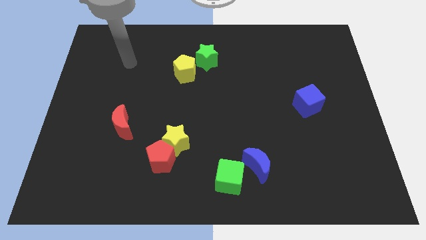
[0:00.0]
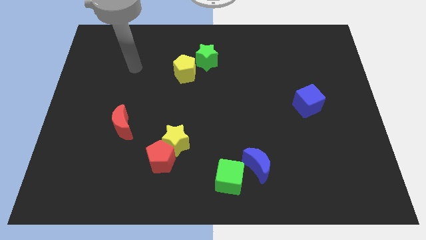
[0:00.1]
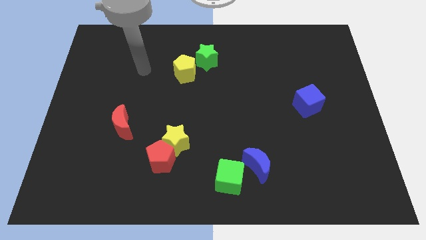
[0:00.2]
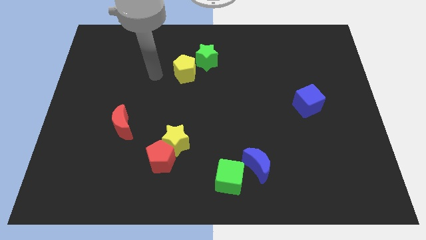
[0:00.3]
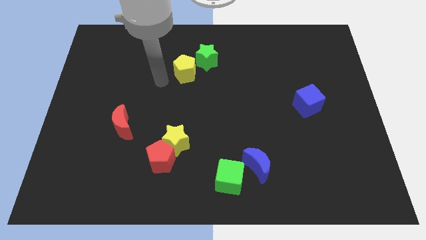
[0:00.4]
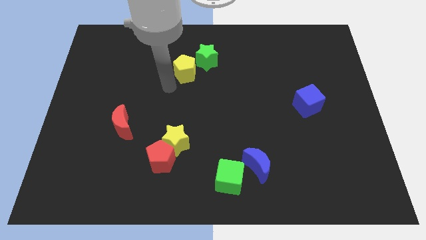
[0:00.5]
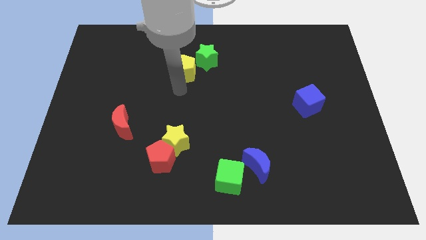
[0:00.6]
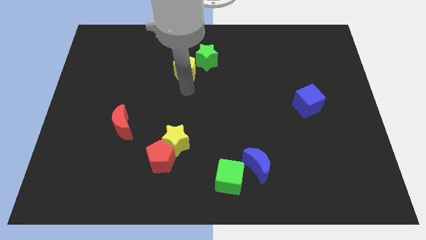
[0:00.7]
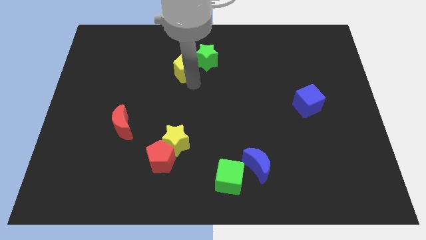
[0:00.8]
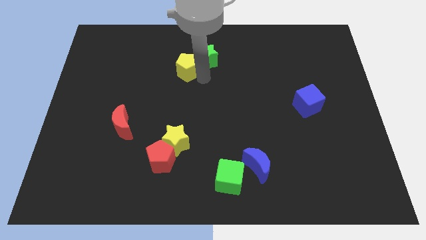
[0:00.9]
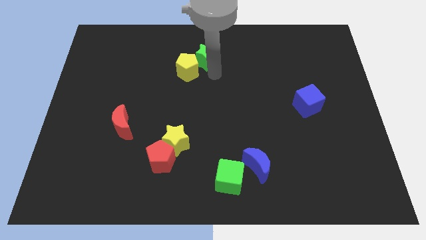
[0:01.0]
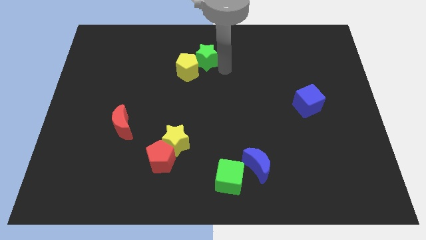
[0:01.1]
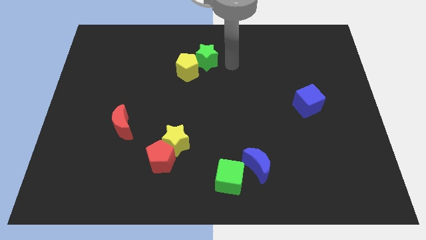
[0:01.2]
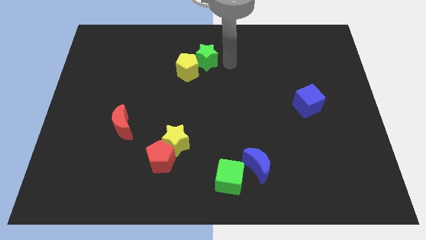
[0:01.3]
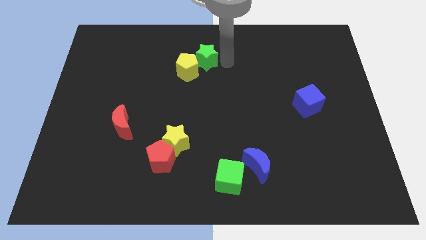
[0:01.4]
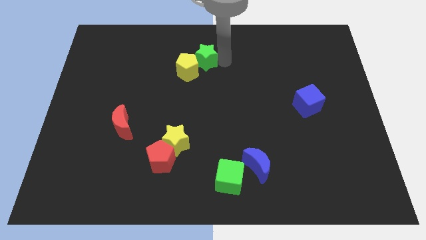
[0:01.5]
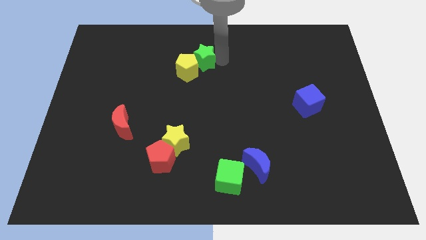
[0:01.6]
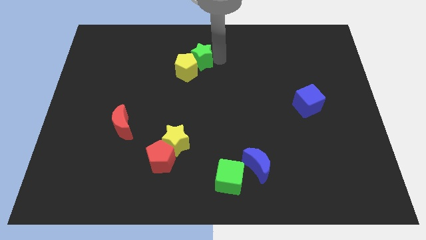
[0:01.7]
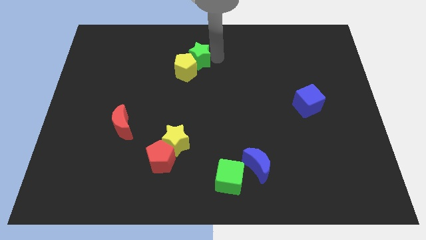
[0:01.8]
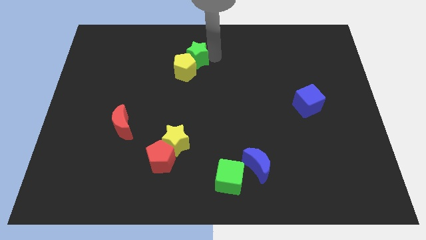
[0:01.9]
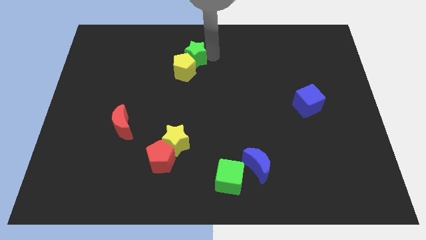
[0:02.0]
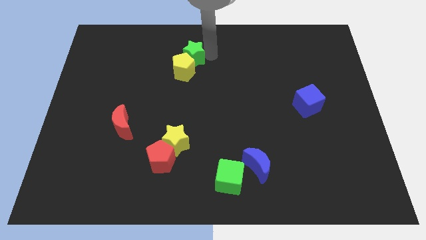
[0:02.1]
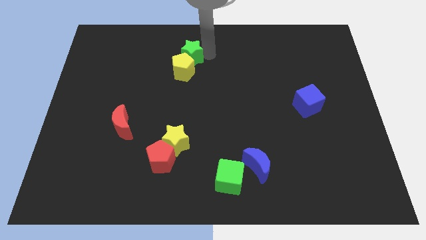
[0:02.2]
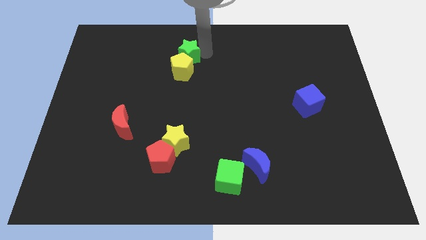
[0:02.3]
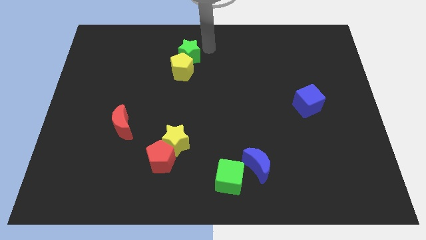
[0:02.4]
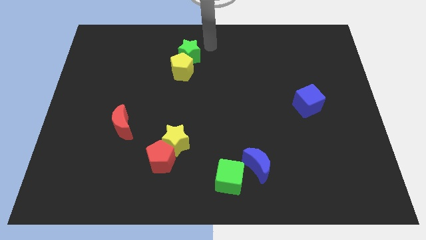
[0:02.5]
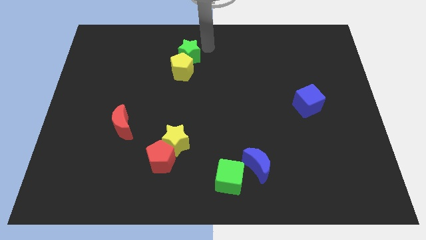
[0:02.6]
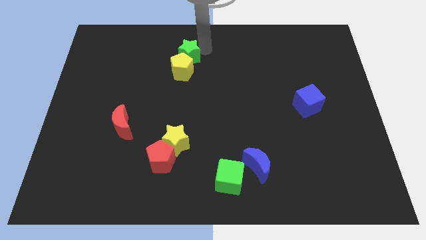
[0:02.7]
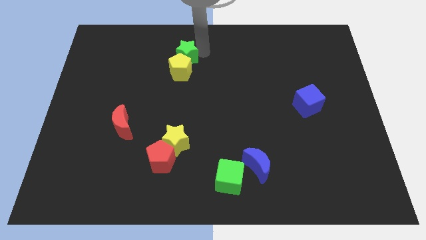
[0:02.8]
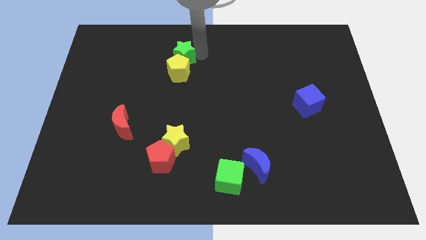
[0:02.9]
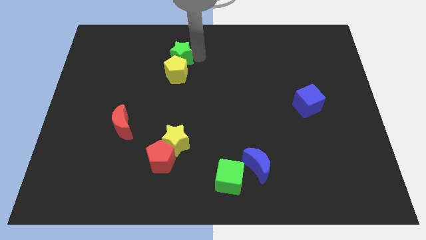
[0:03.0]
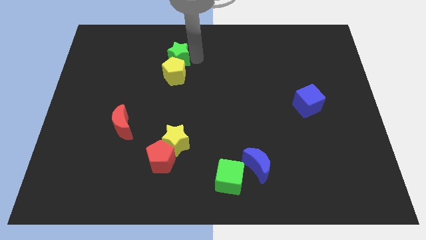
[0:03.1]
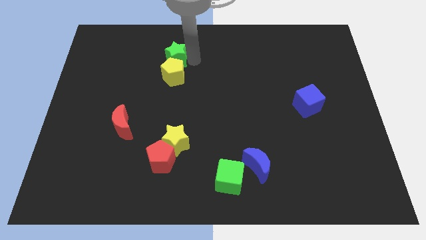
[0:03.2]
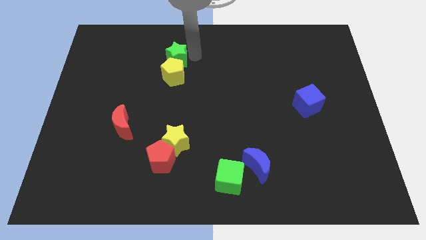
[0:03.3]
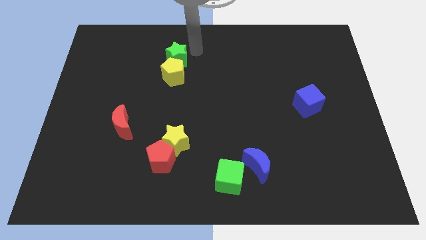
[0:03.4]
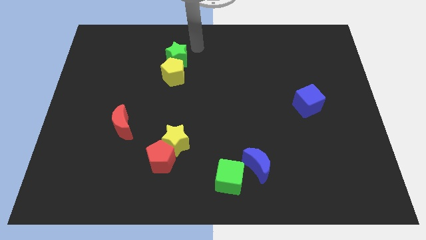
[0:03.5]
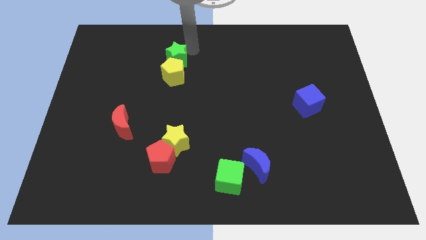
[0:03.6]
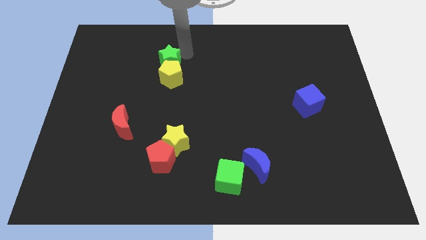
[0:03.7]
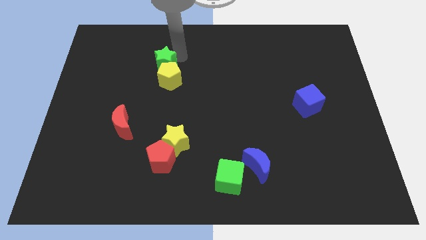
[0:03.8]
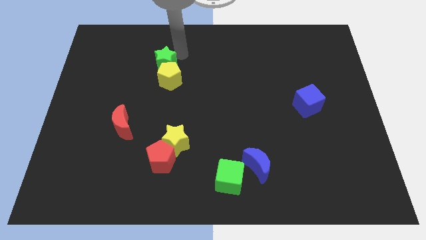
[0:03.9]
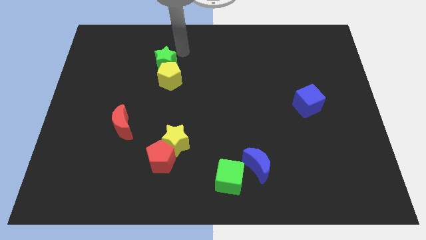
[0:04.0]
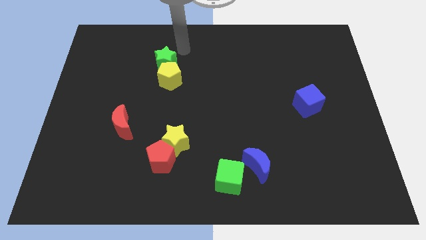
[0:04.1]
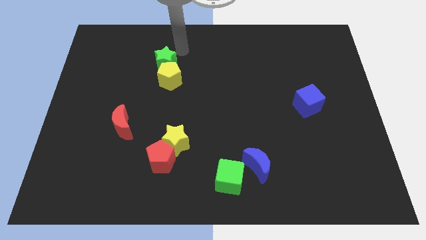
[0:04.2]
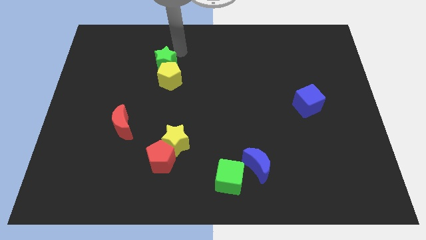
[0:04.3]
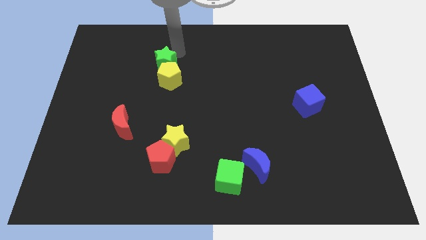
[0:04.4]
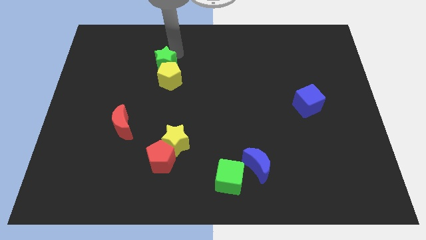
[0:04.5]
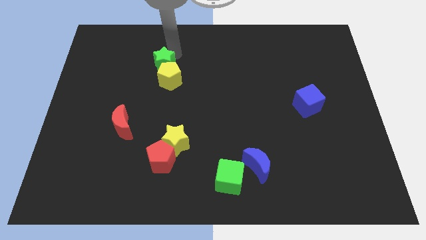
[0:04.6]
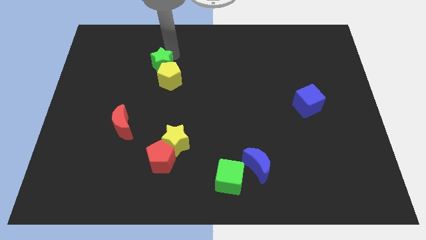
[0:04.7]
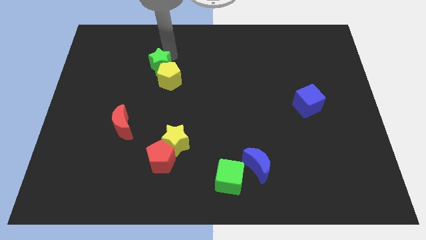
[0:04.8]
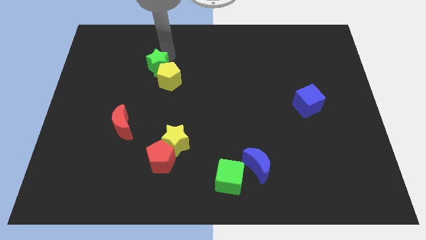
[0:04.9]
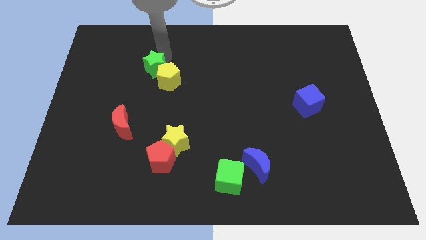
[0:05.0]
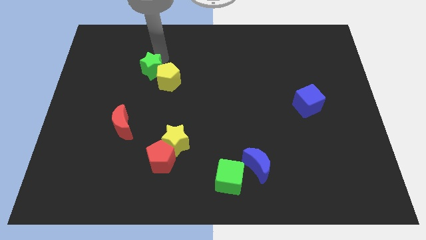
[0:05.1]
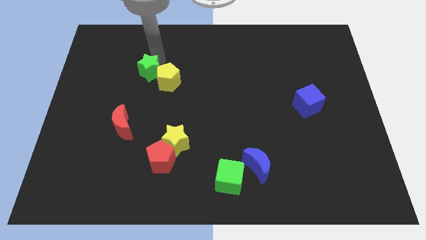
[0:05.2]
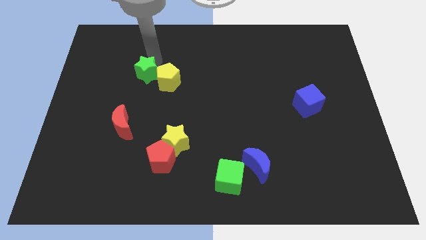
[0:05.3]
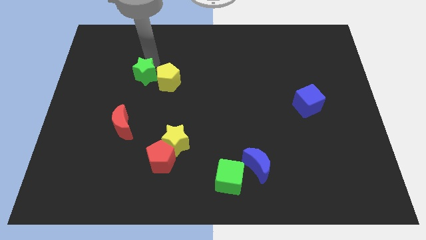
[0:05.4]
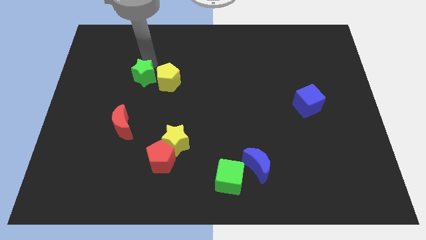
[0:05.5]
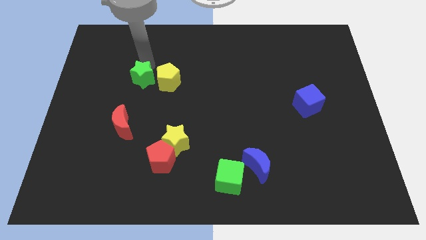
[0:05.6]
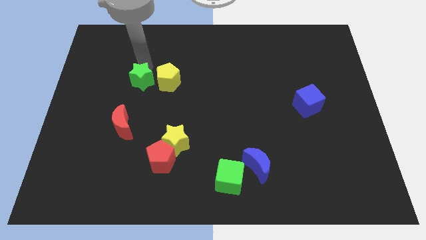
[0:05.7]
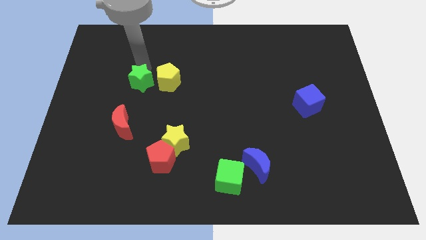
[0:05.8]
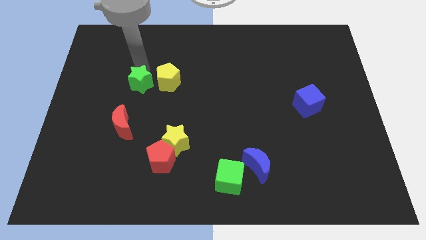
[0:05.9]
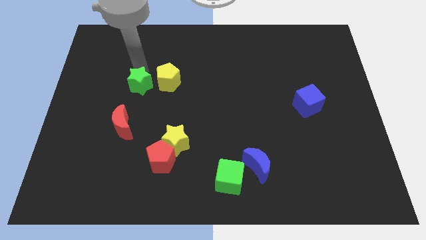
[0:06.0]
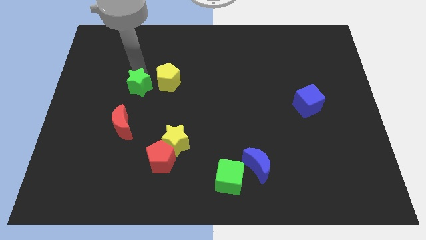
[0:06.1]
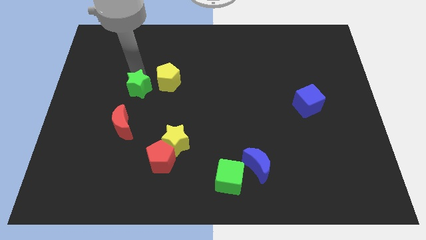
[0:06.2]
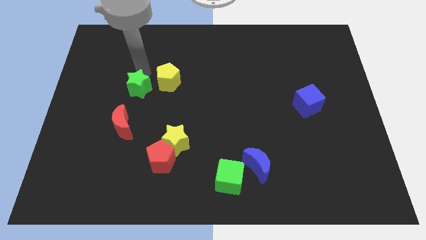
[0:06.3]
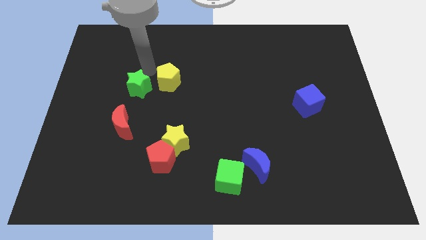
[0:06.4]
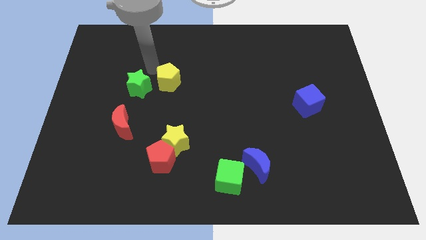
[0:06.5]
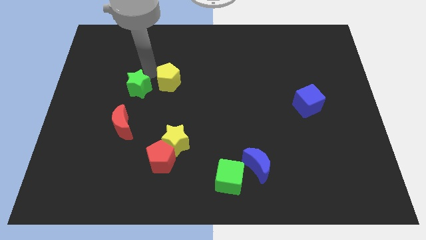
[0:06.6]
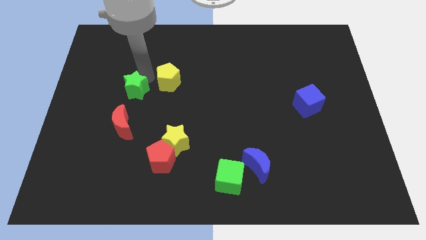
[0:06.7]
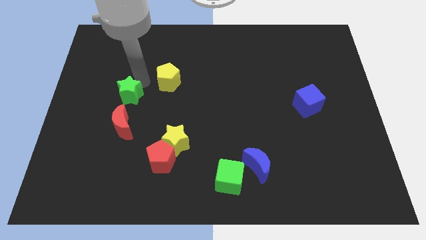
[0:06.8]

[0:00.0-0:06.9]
move the green star down and to the left

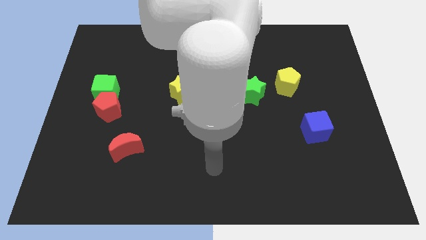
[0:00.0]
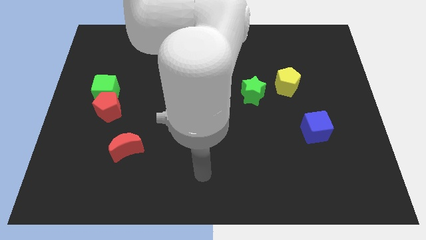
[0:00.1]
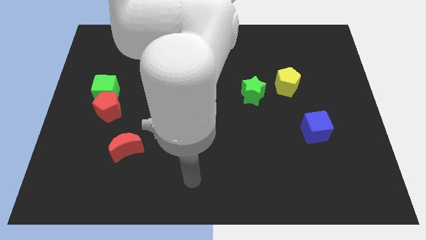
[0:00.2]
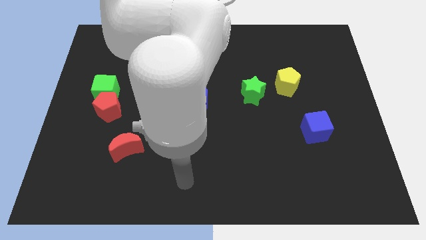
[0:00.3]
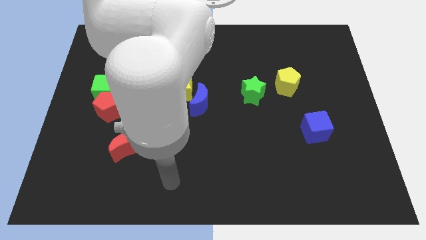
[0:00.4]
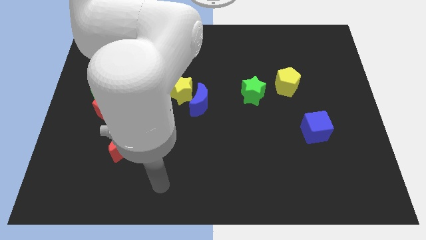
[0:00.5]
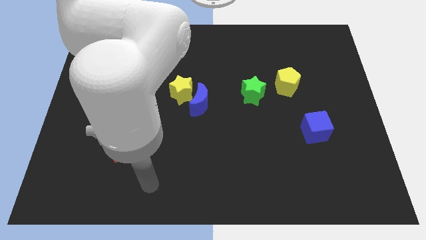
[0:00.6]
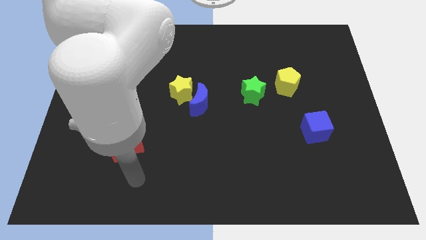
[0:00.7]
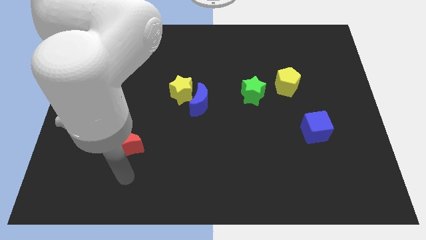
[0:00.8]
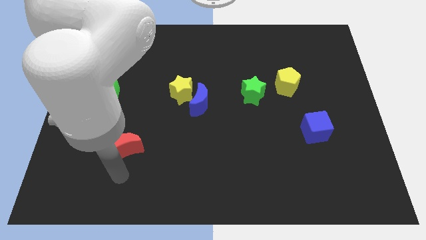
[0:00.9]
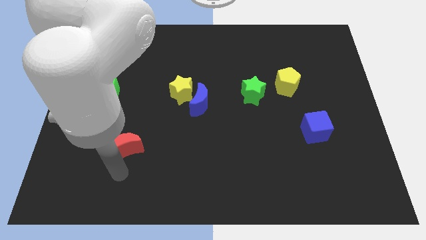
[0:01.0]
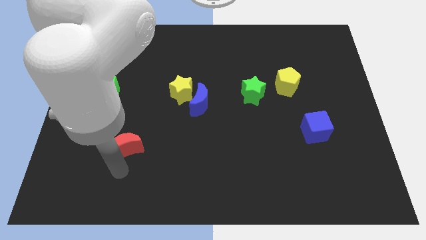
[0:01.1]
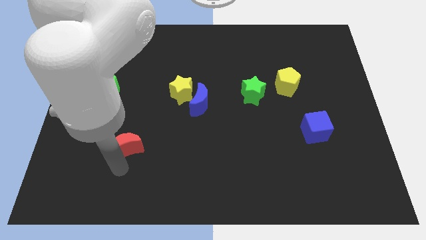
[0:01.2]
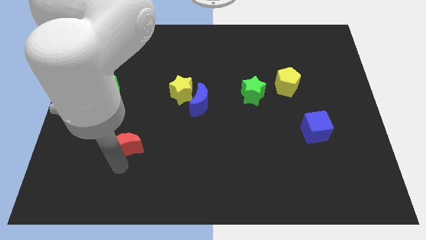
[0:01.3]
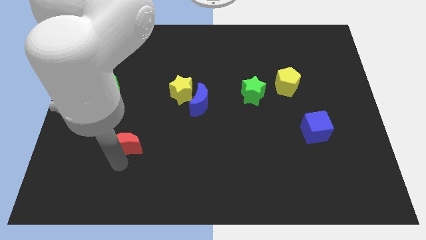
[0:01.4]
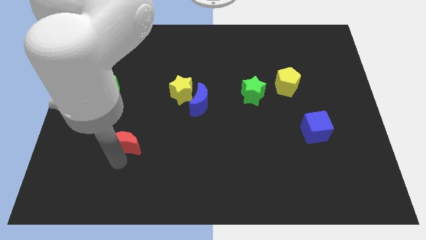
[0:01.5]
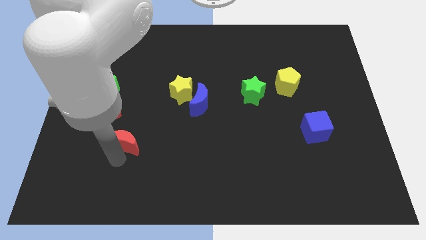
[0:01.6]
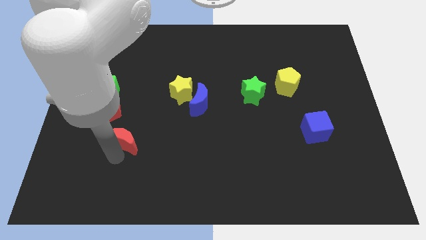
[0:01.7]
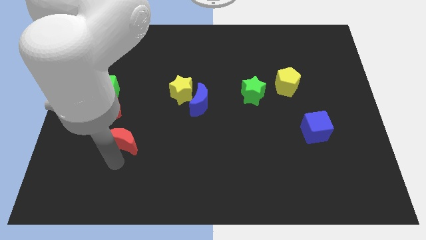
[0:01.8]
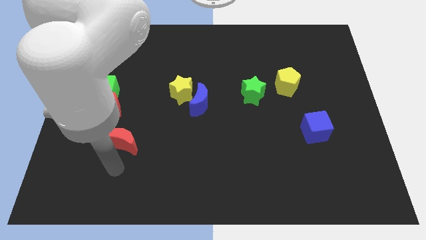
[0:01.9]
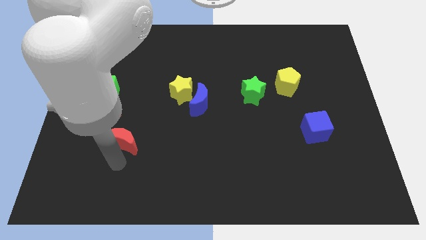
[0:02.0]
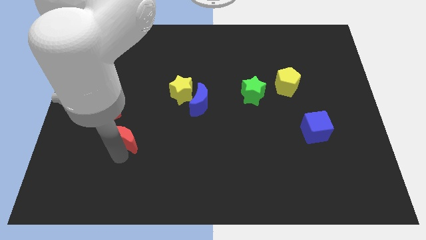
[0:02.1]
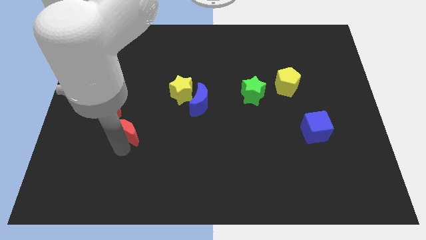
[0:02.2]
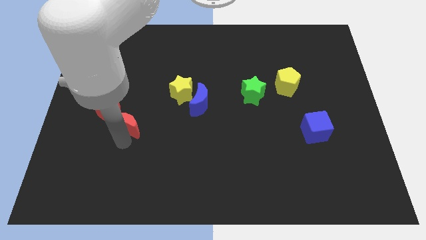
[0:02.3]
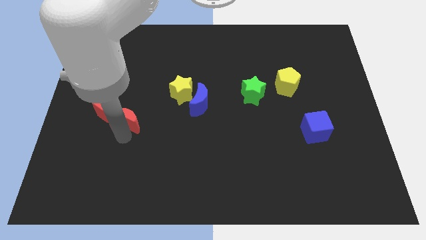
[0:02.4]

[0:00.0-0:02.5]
slightly push the red moon upwards
